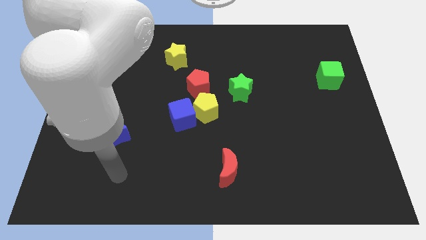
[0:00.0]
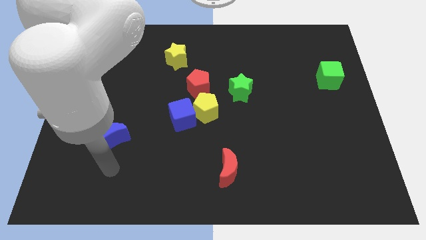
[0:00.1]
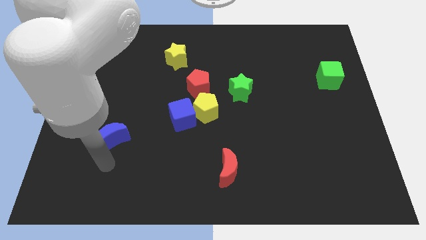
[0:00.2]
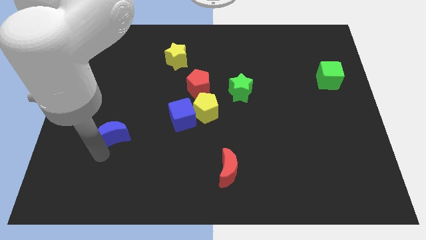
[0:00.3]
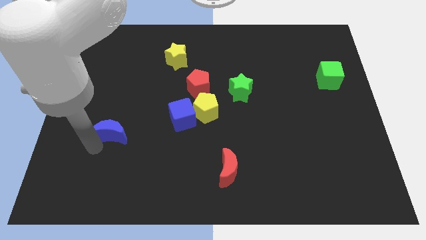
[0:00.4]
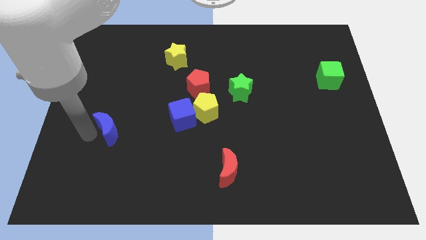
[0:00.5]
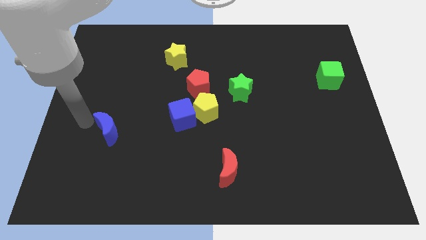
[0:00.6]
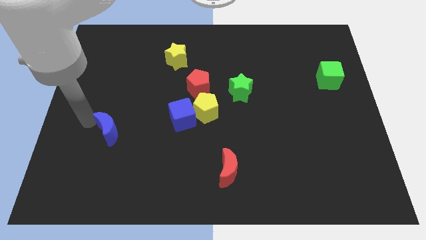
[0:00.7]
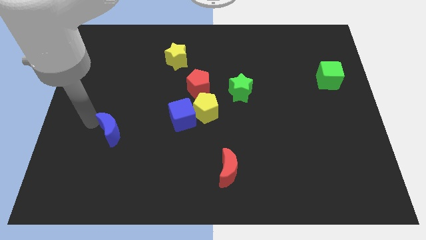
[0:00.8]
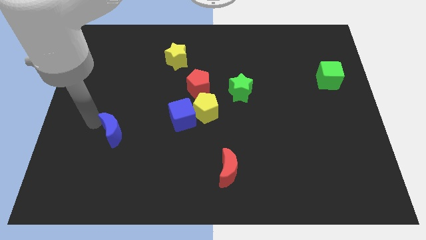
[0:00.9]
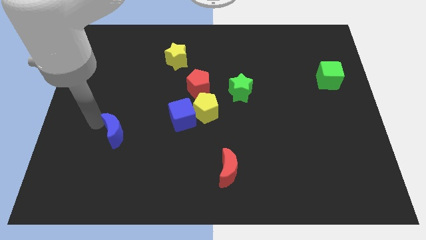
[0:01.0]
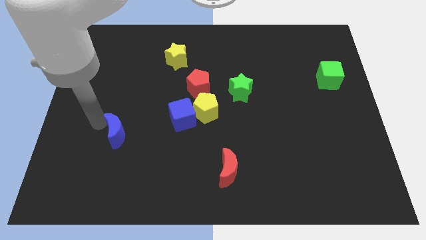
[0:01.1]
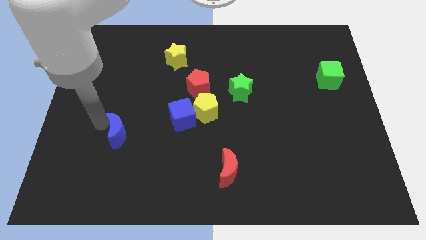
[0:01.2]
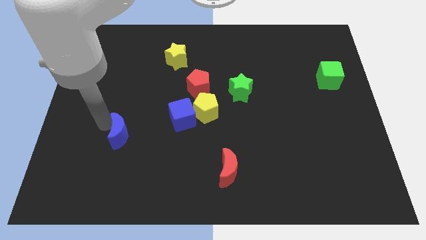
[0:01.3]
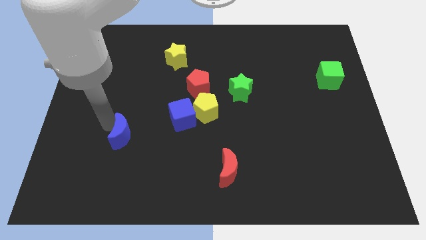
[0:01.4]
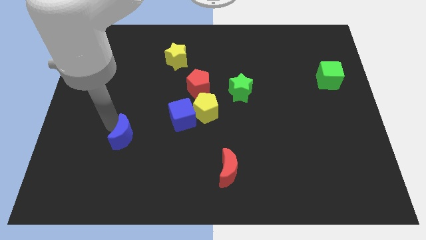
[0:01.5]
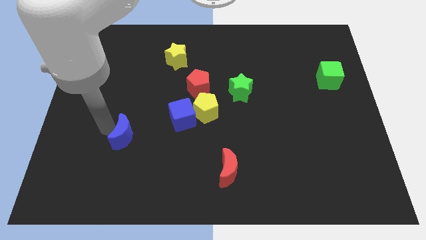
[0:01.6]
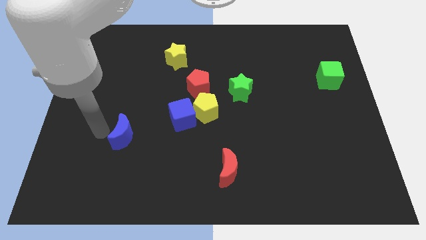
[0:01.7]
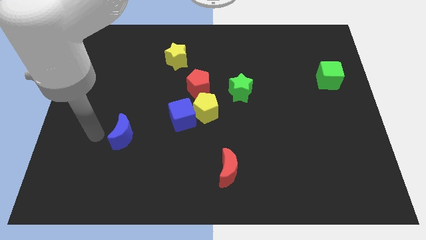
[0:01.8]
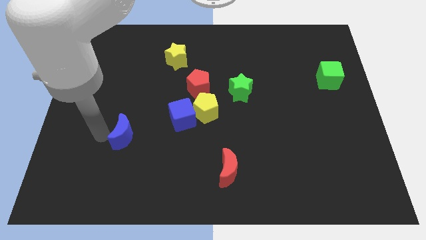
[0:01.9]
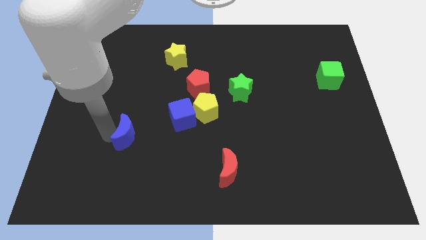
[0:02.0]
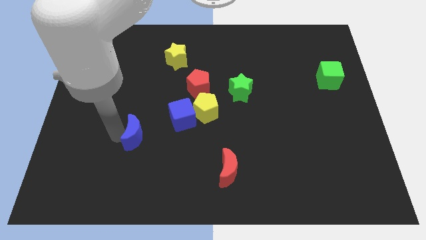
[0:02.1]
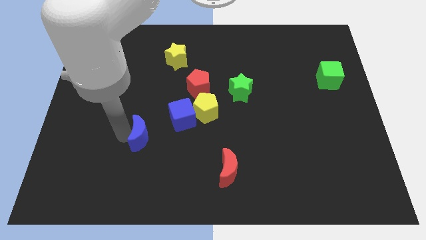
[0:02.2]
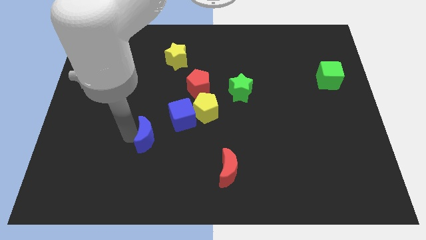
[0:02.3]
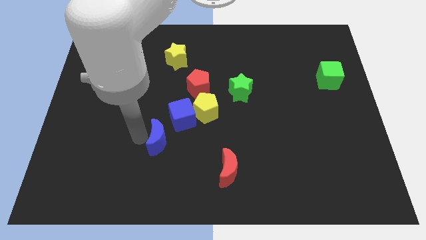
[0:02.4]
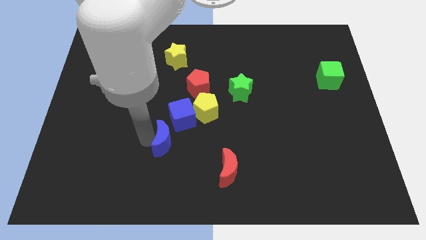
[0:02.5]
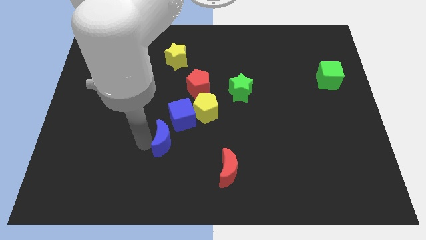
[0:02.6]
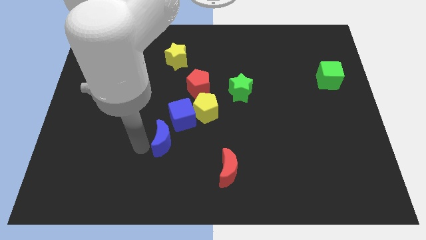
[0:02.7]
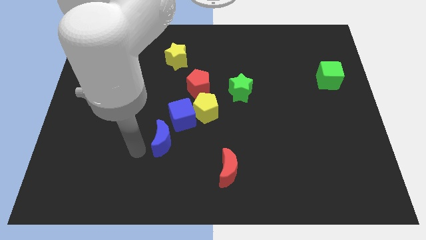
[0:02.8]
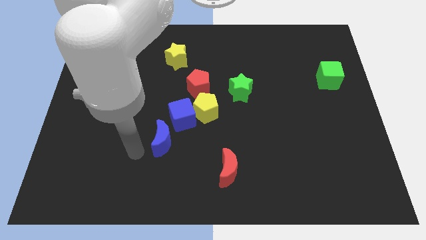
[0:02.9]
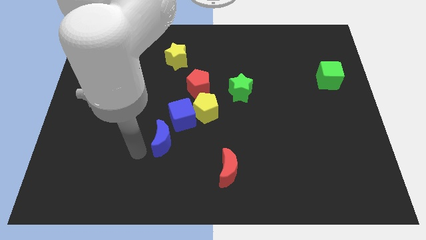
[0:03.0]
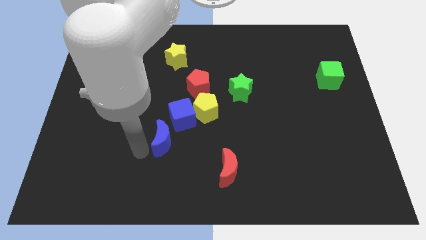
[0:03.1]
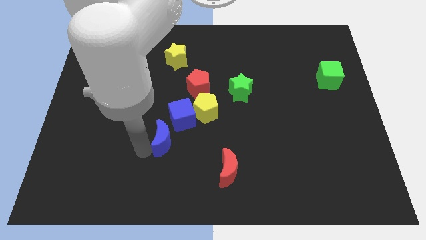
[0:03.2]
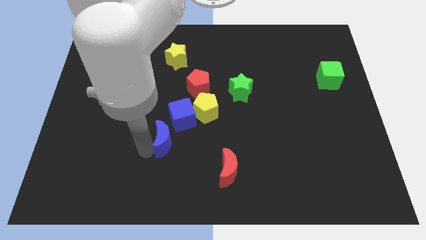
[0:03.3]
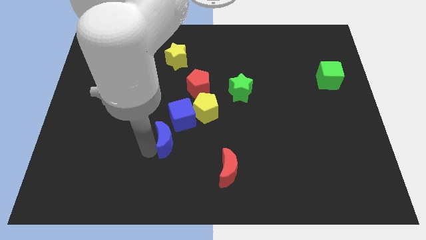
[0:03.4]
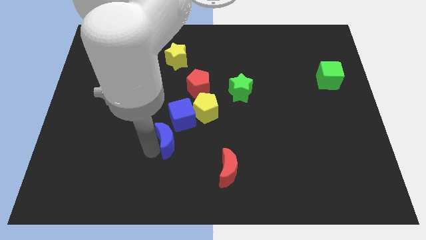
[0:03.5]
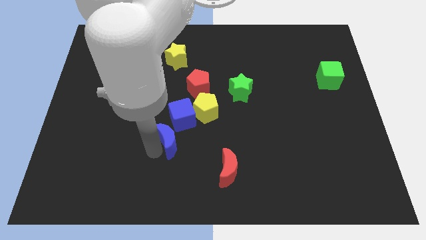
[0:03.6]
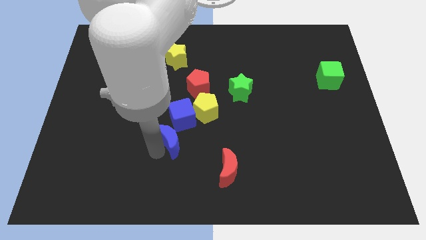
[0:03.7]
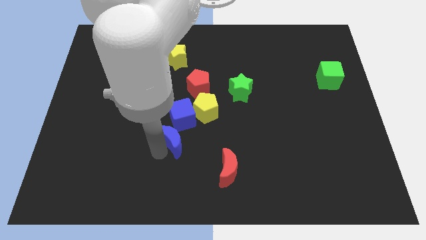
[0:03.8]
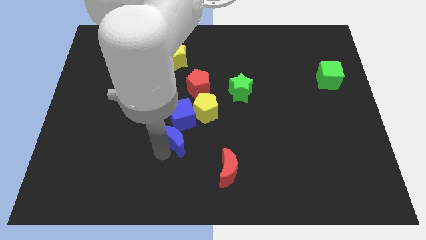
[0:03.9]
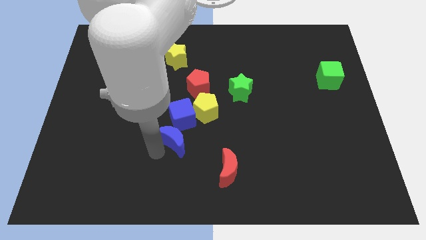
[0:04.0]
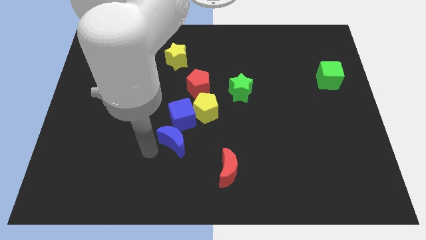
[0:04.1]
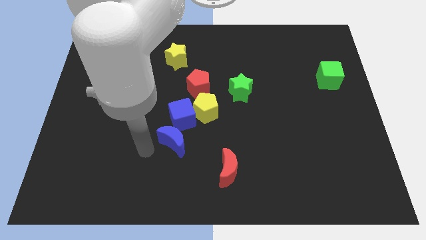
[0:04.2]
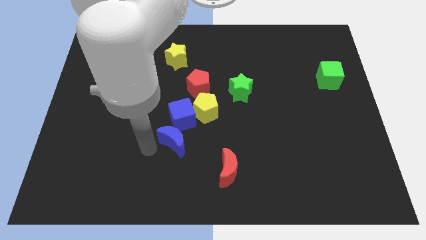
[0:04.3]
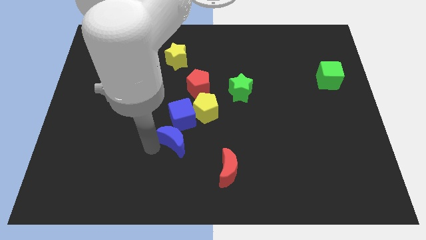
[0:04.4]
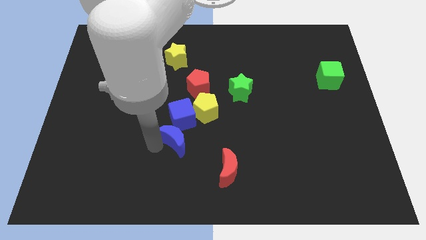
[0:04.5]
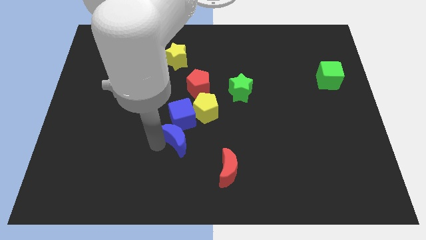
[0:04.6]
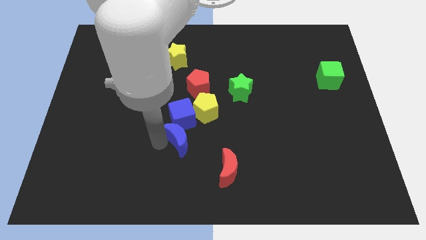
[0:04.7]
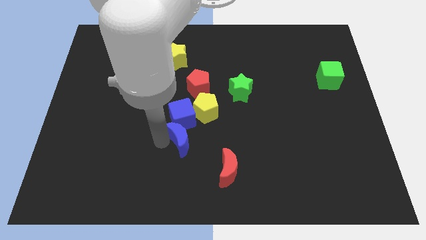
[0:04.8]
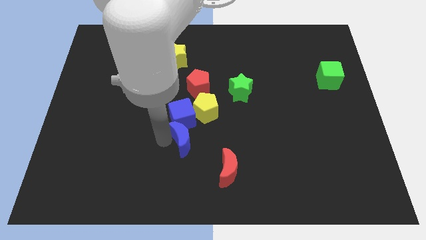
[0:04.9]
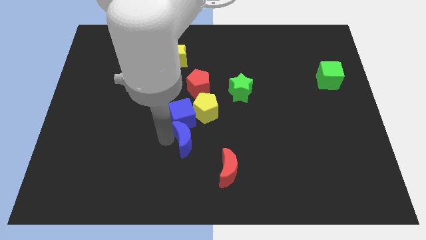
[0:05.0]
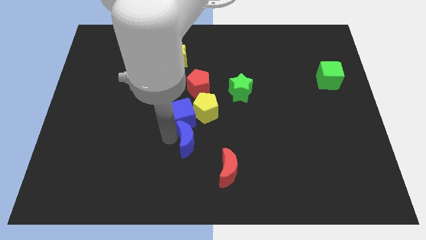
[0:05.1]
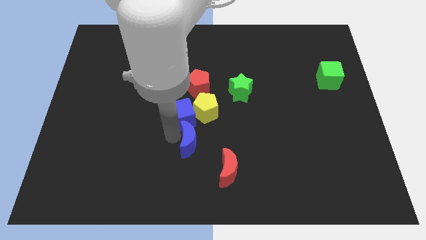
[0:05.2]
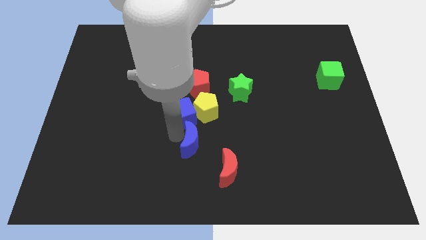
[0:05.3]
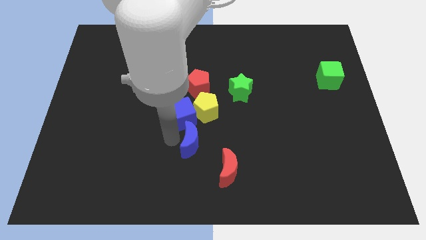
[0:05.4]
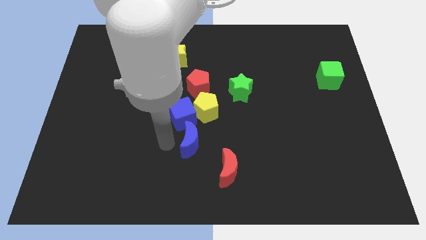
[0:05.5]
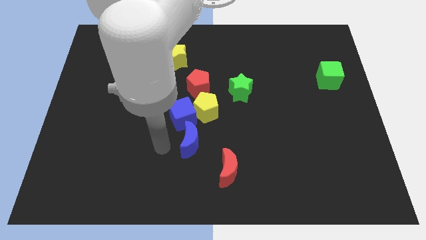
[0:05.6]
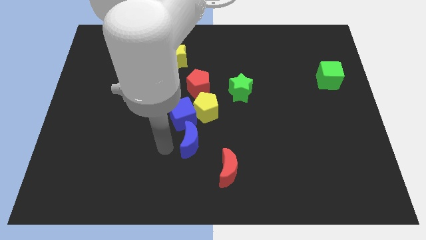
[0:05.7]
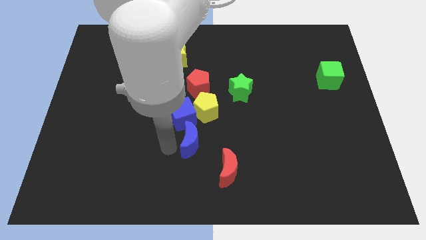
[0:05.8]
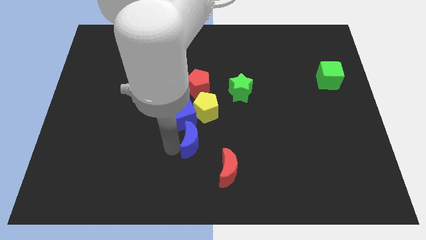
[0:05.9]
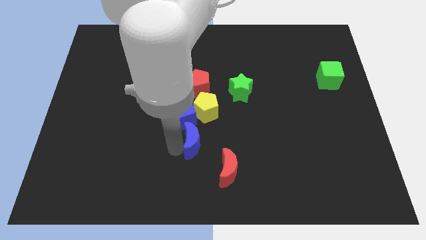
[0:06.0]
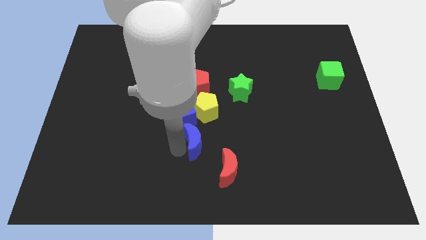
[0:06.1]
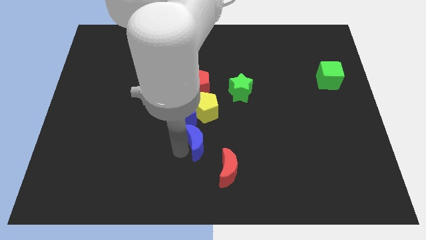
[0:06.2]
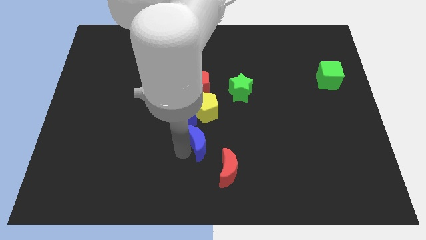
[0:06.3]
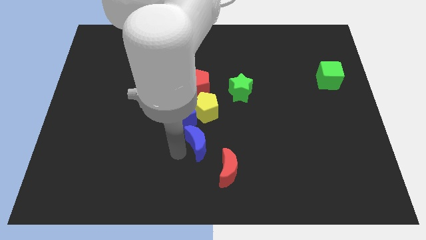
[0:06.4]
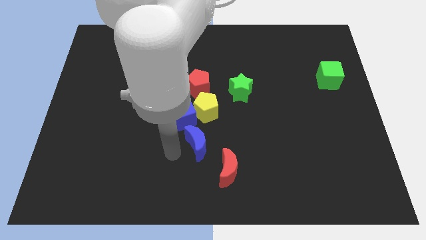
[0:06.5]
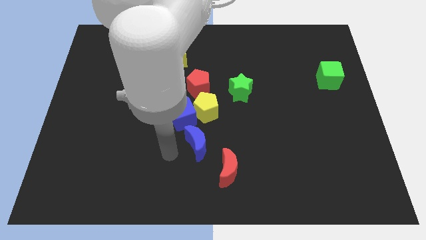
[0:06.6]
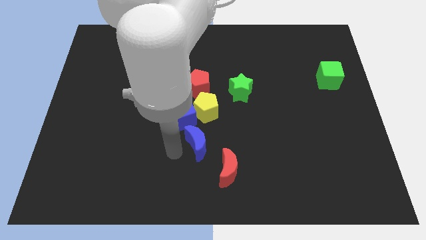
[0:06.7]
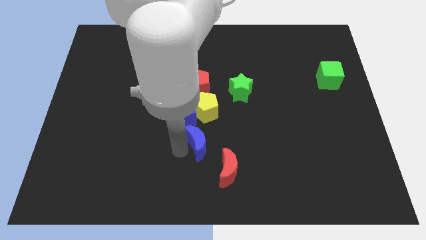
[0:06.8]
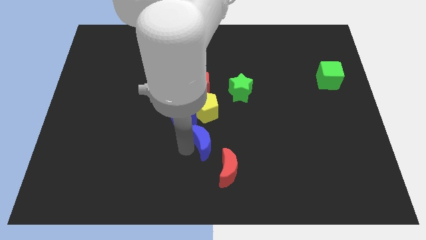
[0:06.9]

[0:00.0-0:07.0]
move the blue moon to the right

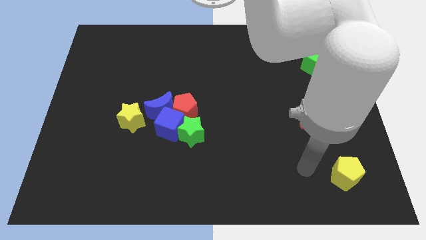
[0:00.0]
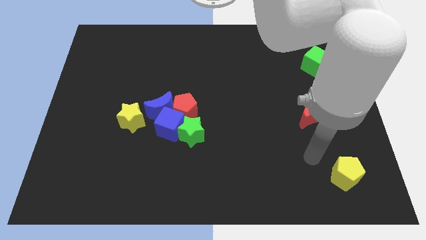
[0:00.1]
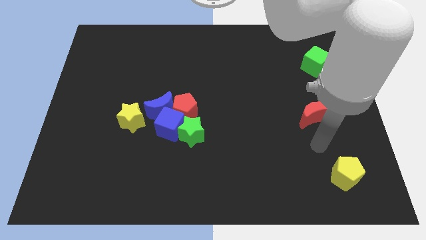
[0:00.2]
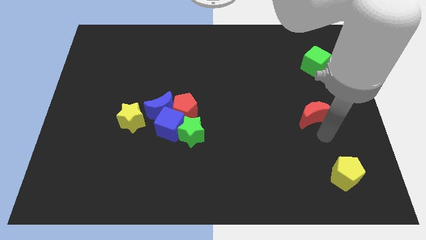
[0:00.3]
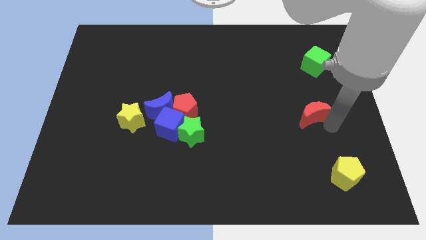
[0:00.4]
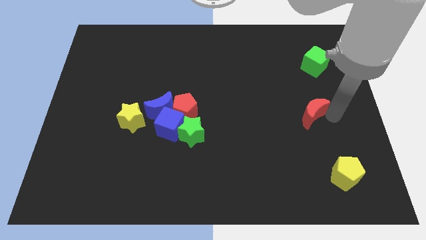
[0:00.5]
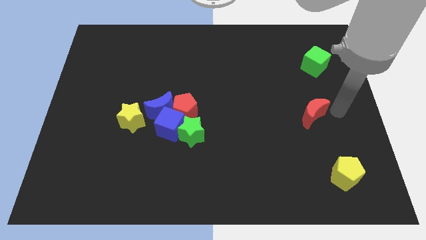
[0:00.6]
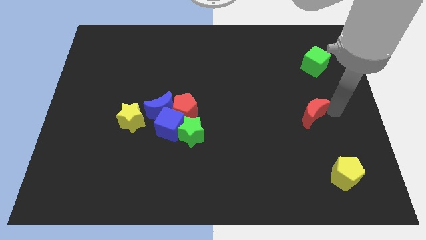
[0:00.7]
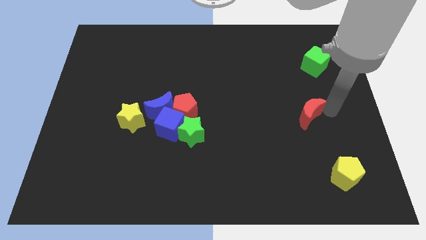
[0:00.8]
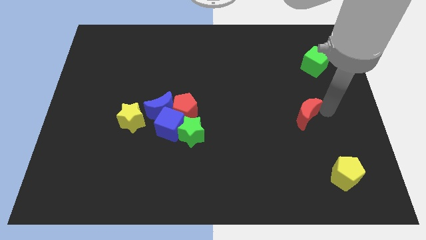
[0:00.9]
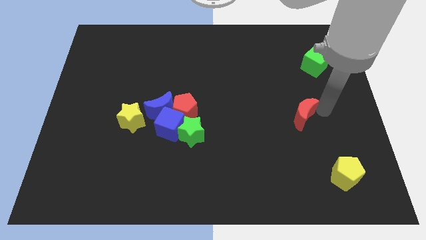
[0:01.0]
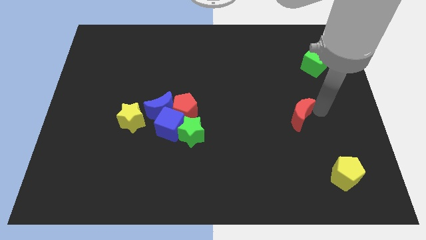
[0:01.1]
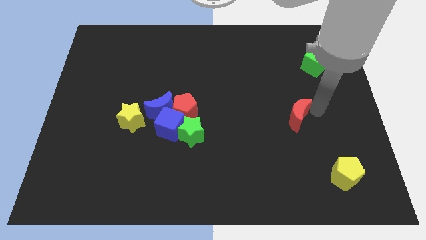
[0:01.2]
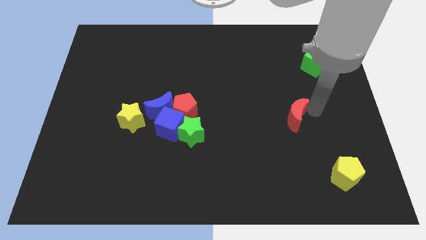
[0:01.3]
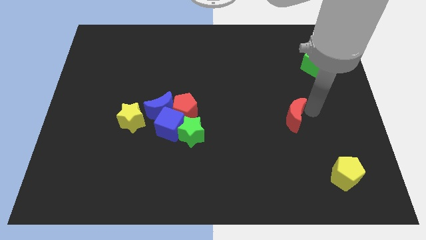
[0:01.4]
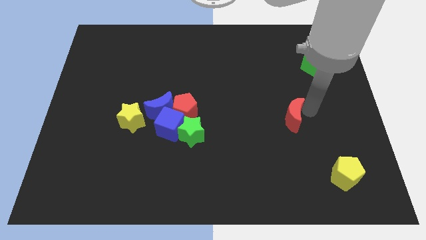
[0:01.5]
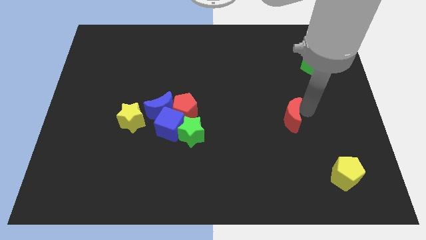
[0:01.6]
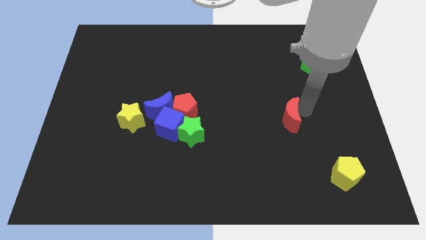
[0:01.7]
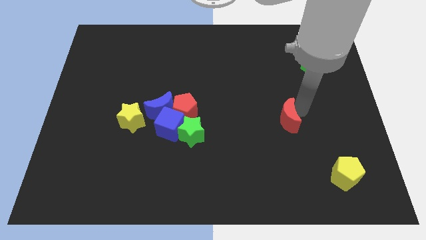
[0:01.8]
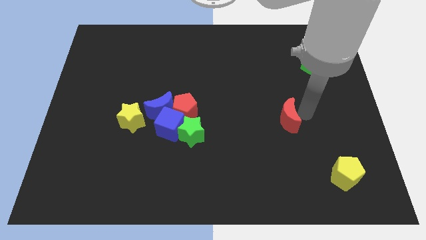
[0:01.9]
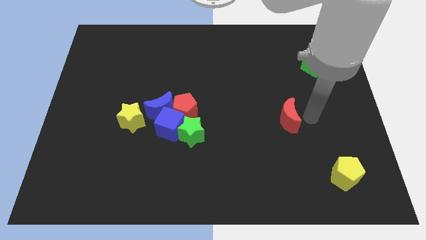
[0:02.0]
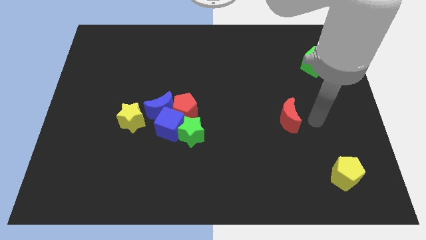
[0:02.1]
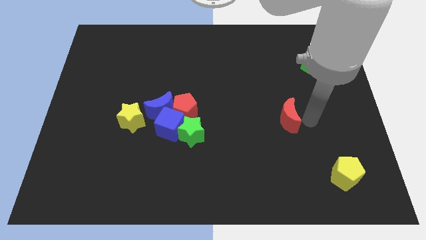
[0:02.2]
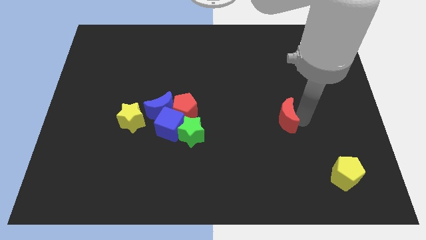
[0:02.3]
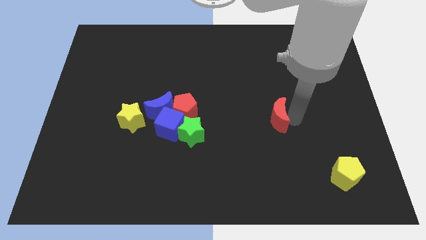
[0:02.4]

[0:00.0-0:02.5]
slightly push the red moon to the left
